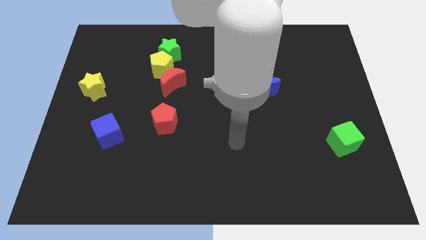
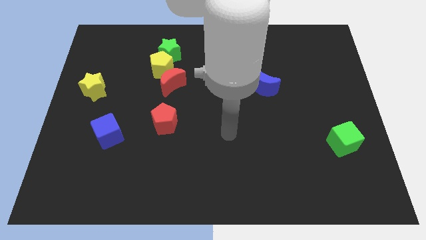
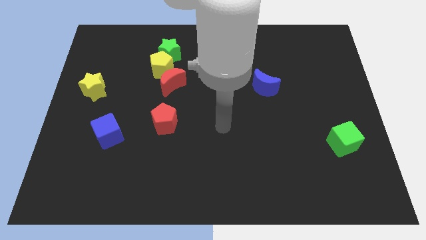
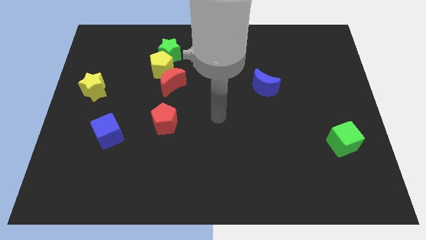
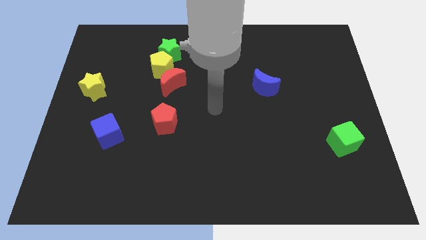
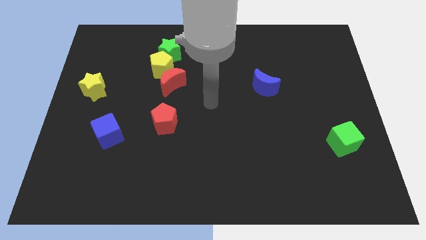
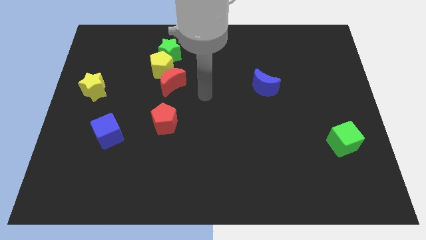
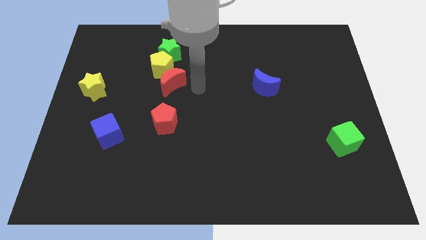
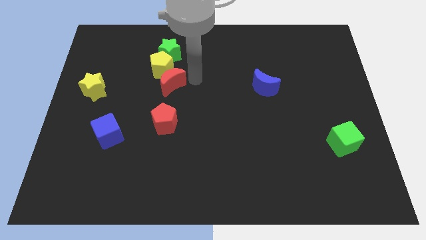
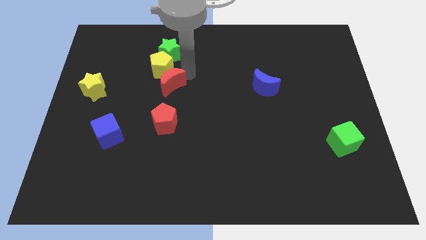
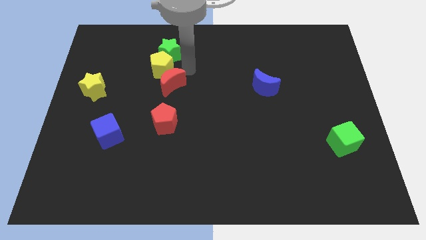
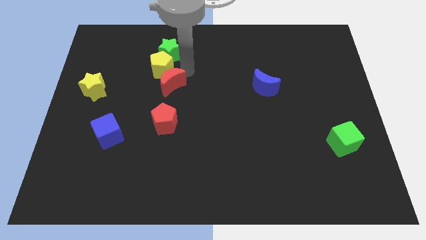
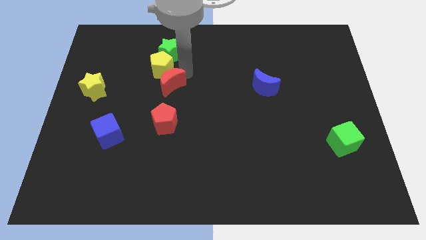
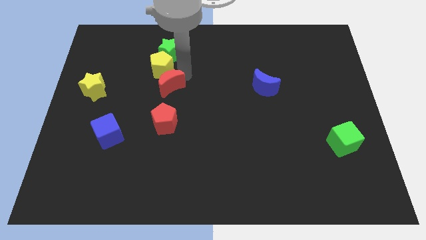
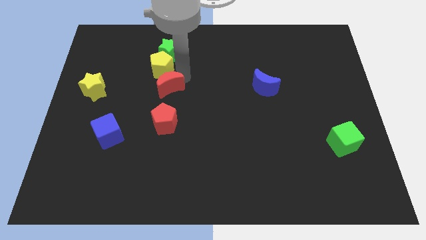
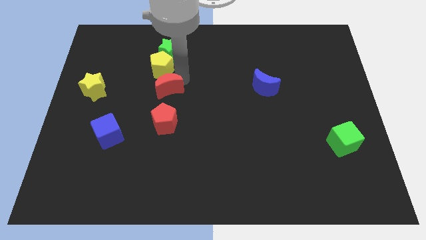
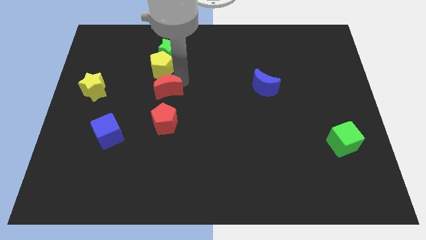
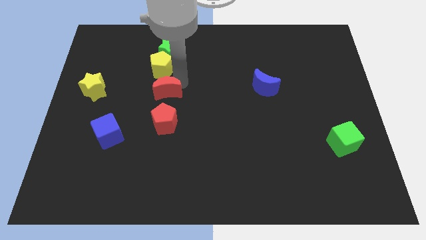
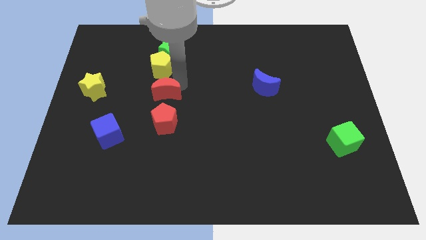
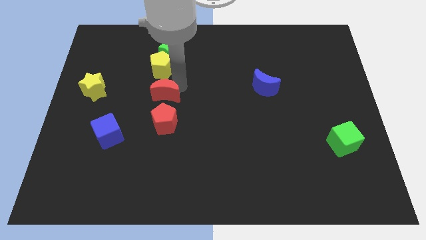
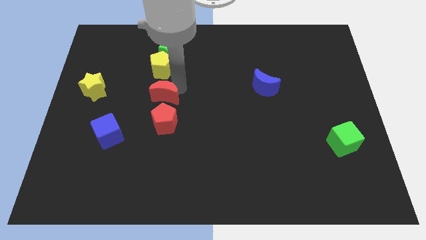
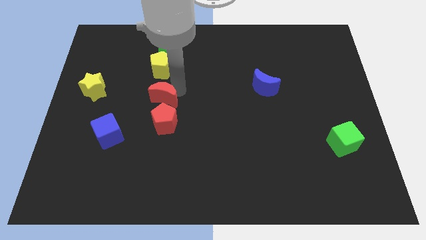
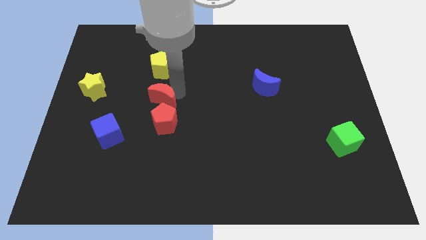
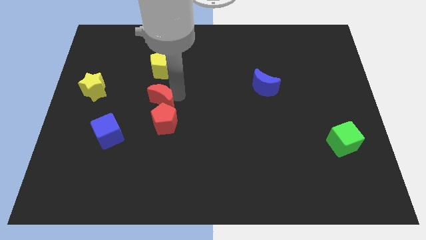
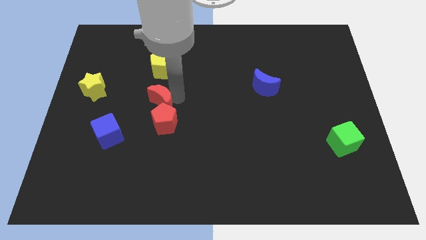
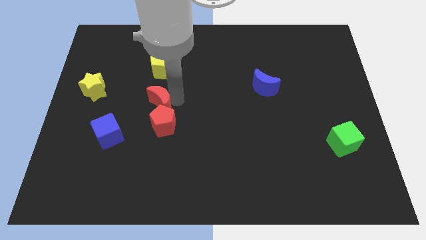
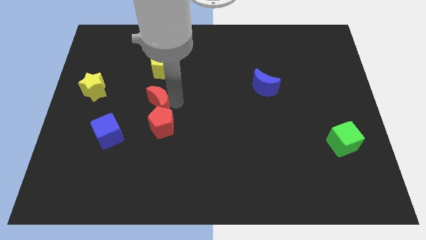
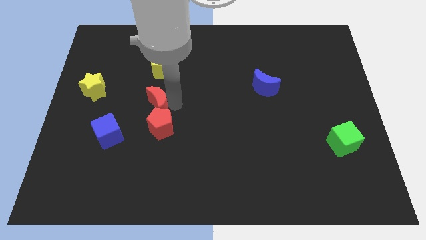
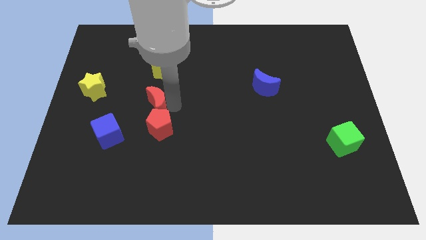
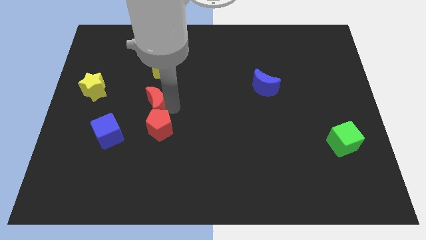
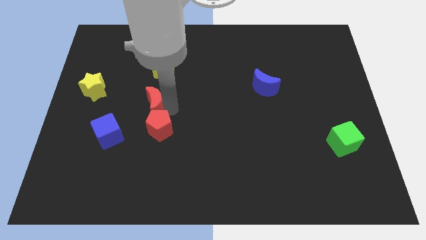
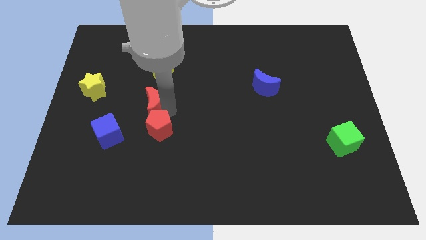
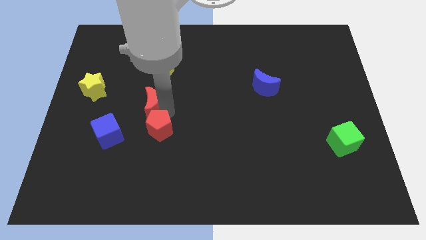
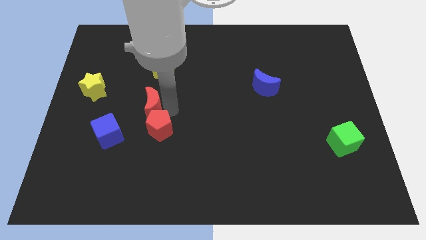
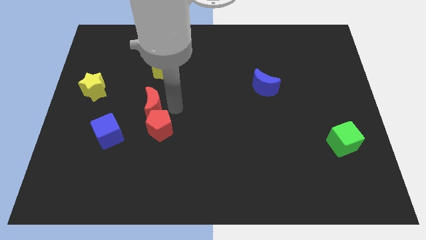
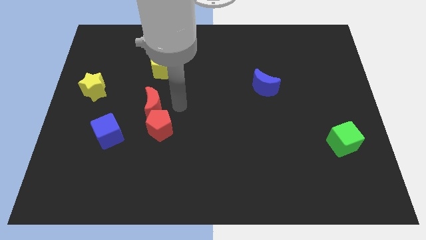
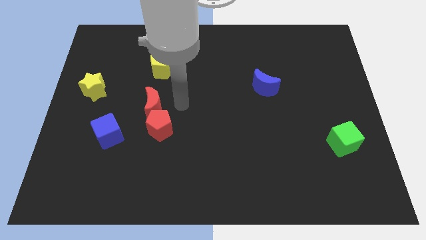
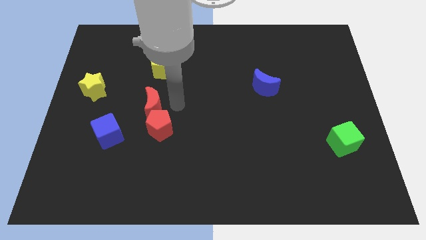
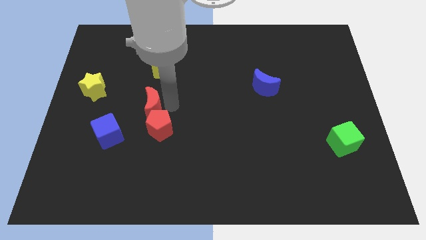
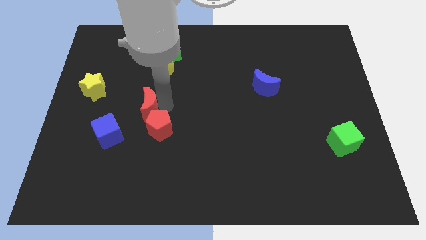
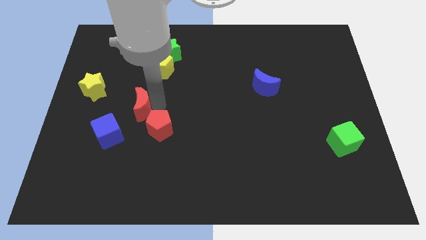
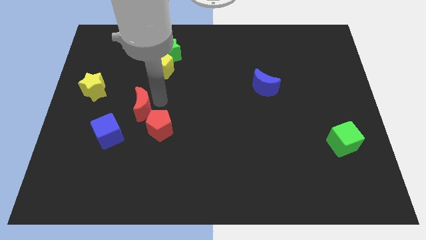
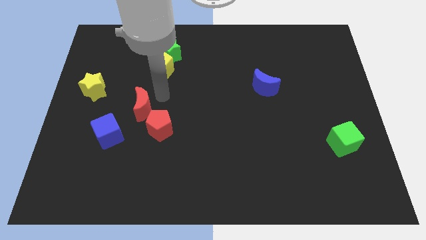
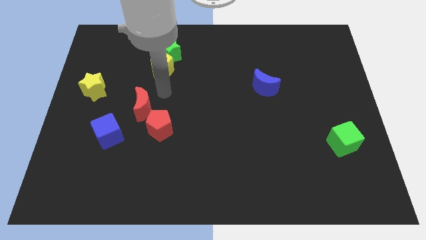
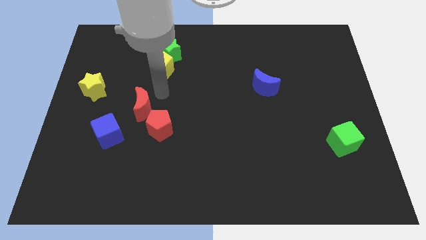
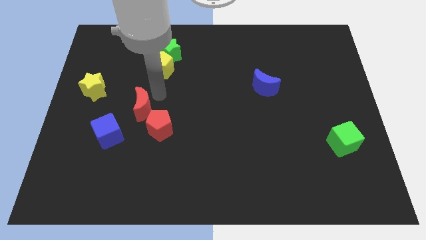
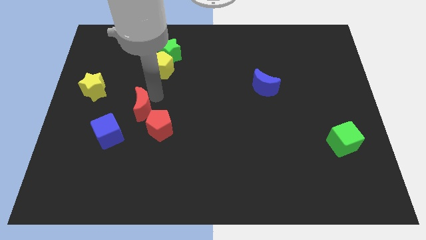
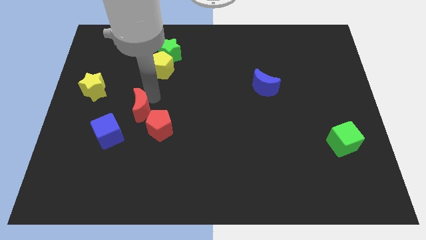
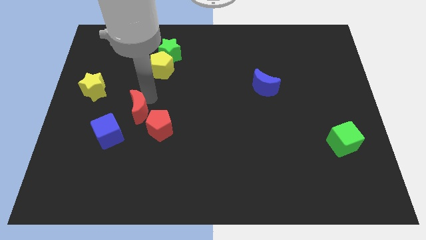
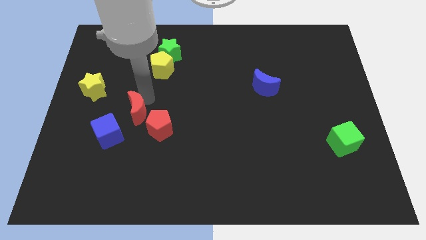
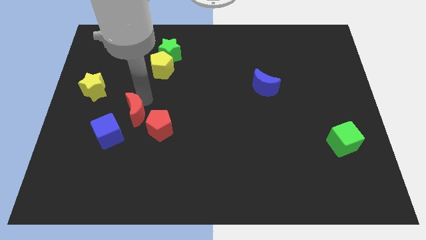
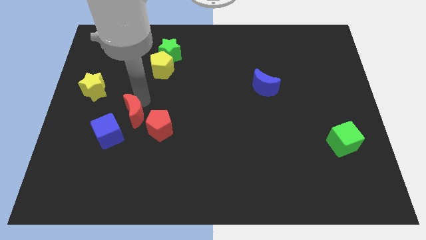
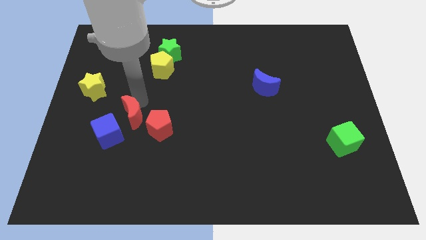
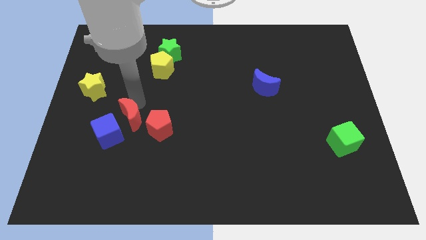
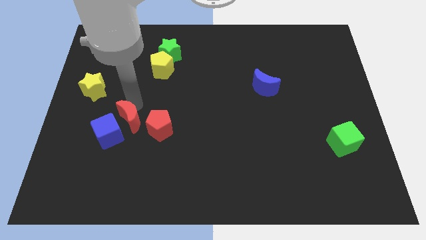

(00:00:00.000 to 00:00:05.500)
move the red moon next to the blue cube

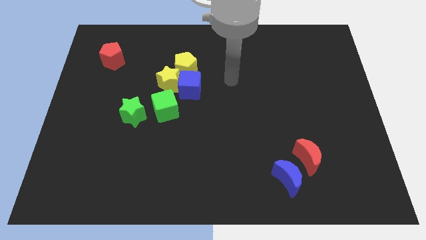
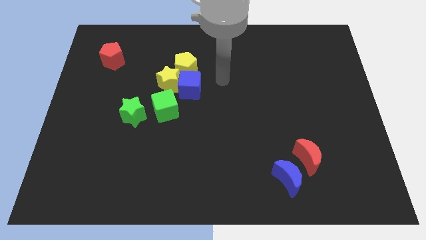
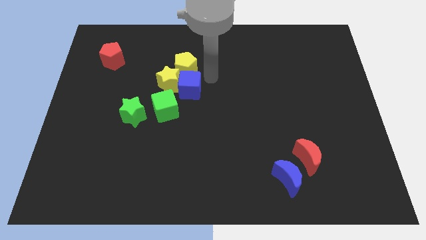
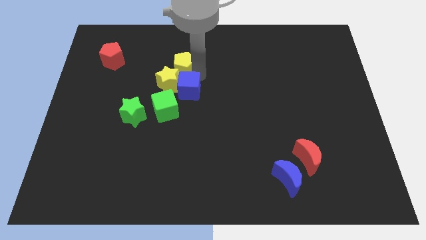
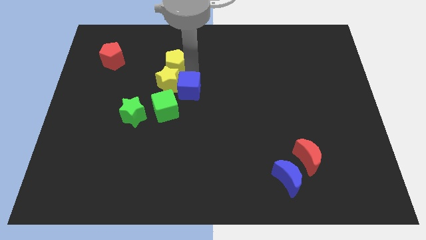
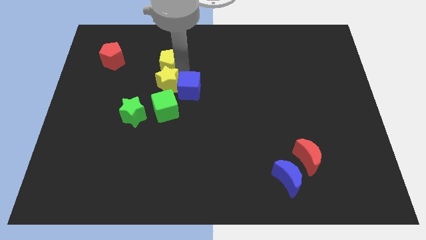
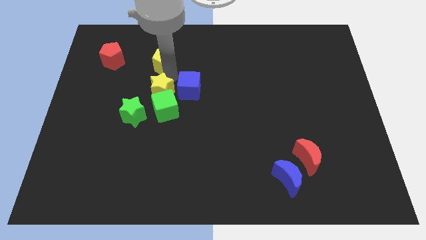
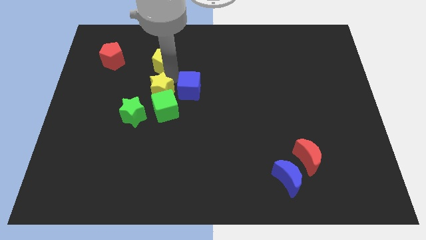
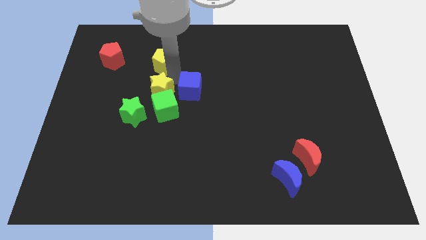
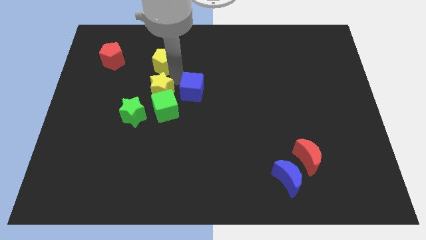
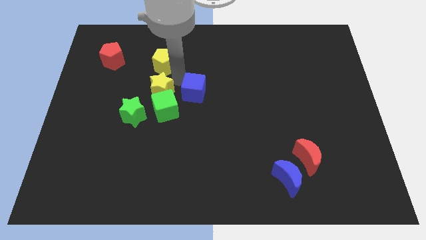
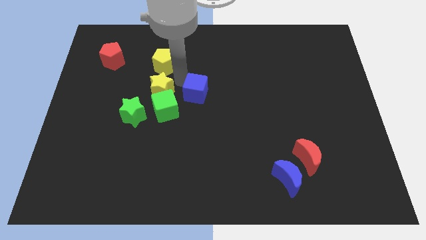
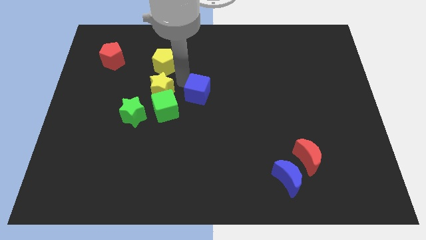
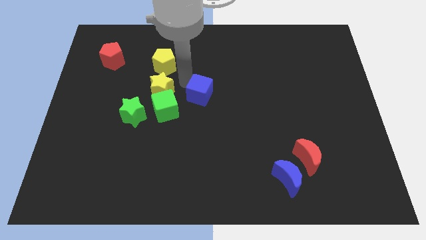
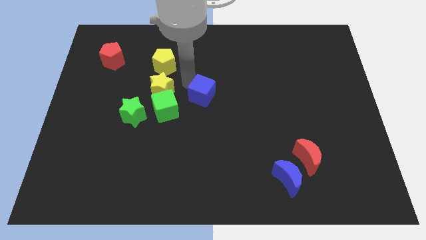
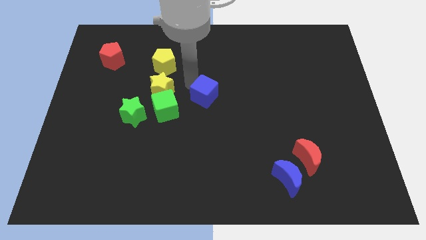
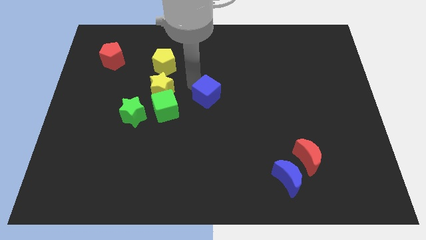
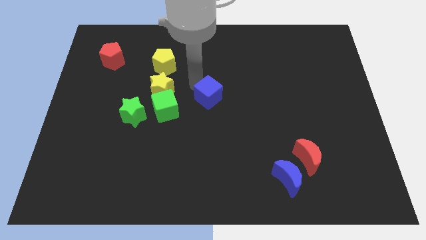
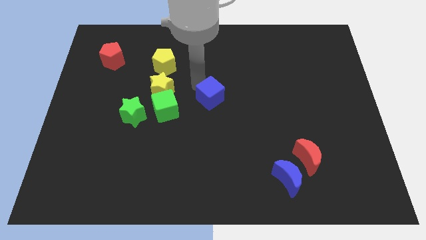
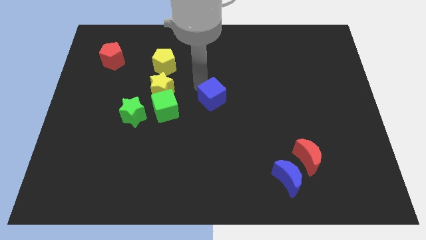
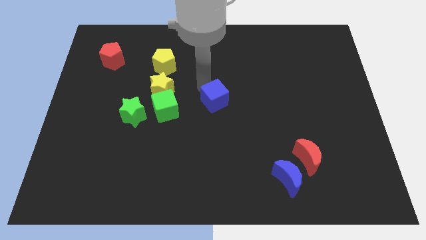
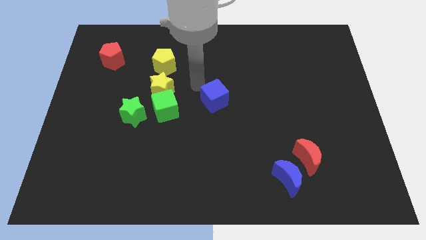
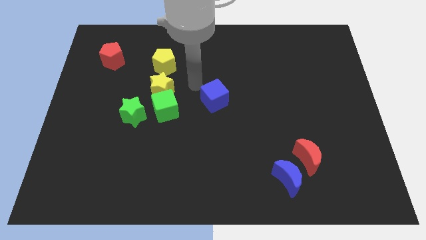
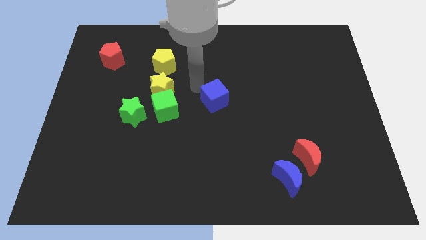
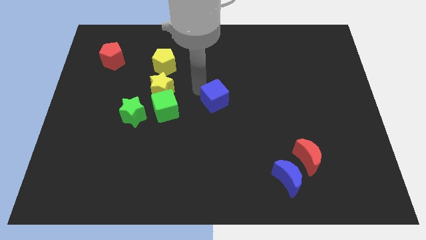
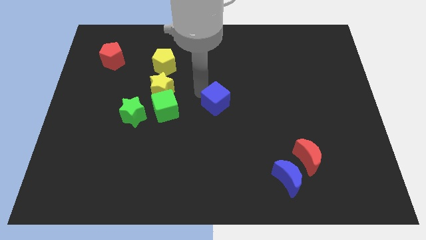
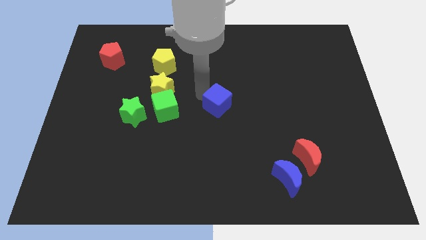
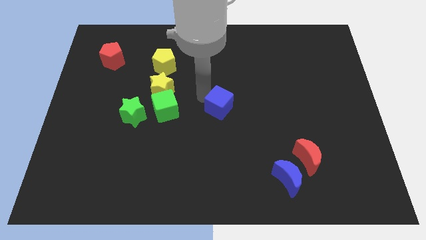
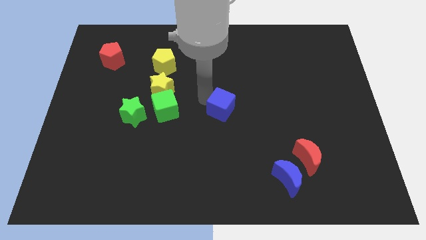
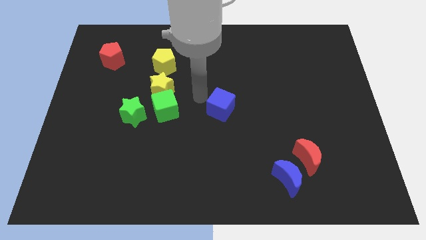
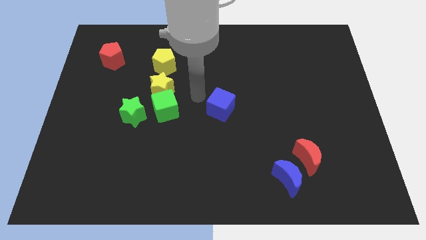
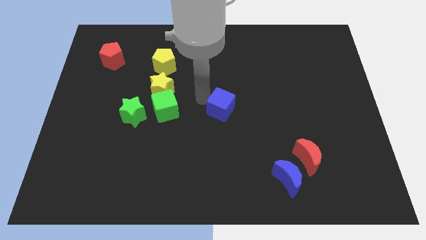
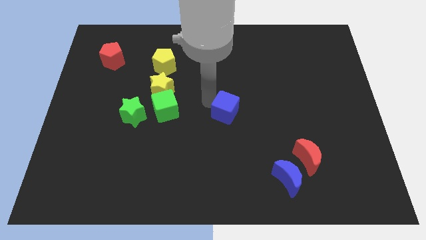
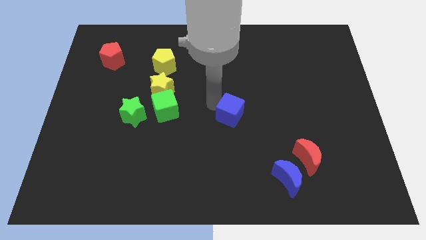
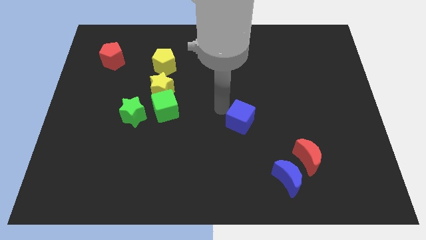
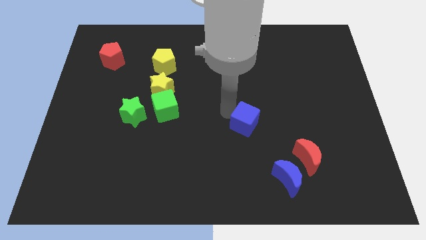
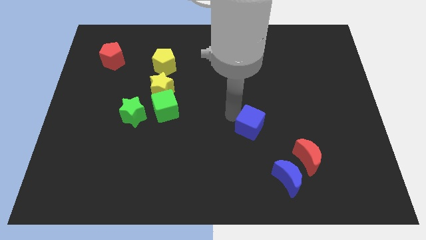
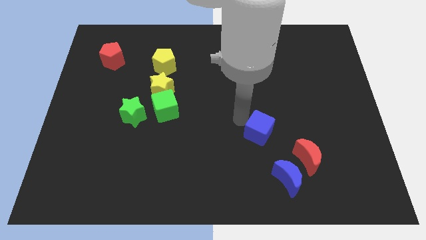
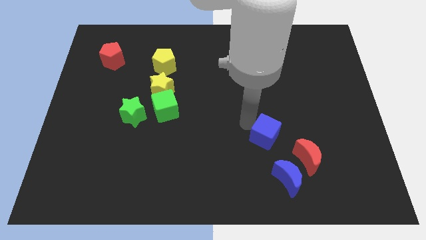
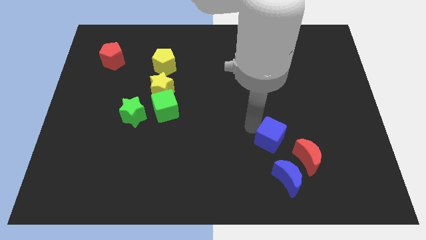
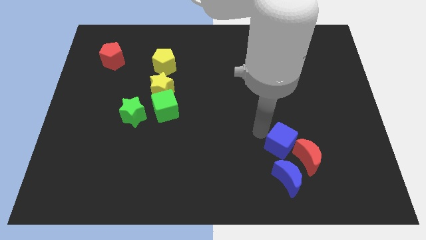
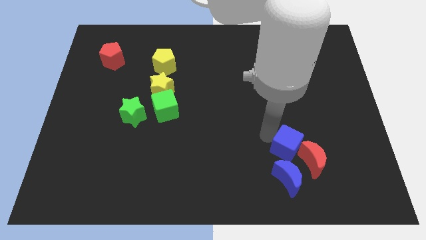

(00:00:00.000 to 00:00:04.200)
move the blue cube to the red moon
